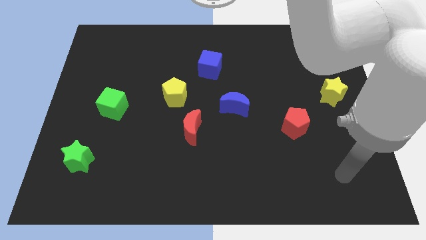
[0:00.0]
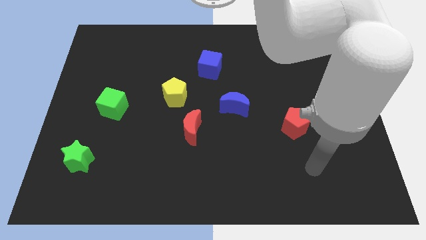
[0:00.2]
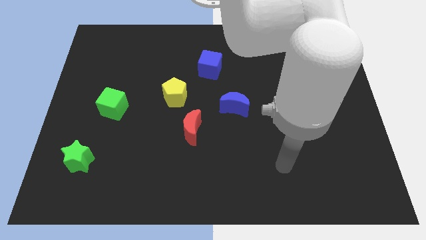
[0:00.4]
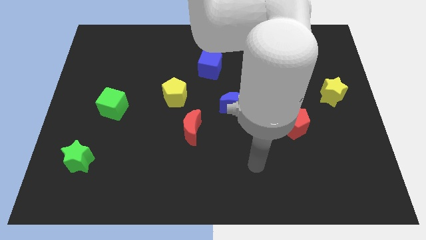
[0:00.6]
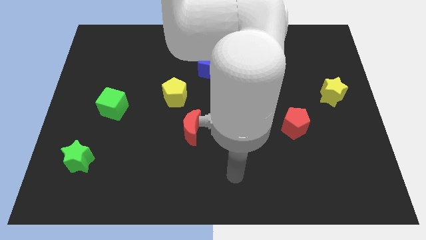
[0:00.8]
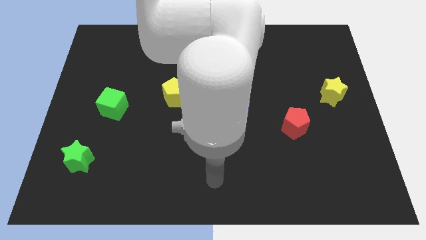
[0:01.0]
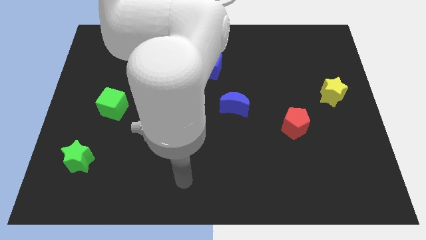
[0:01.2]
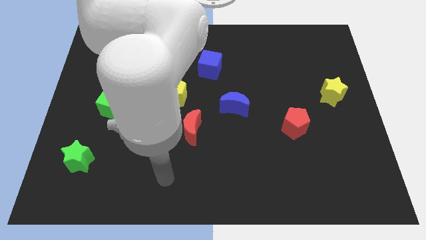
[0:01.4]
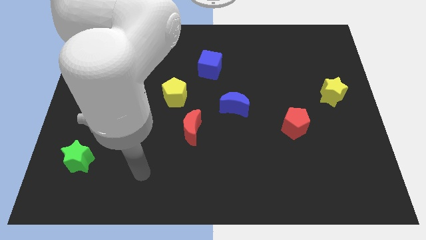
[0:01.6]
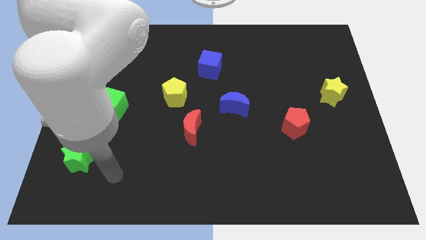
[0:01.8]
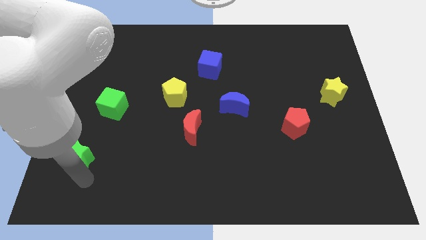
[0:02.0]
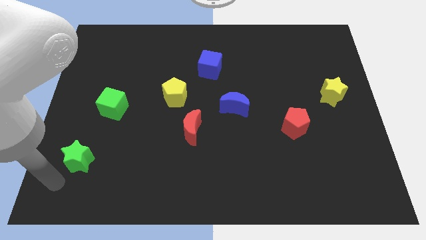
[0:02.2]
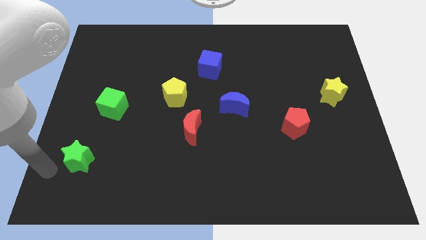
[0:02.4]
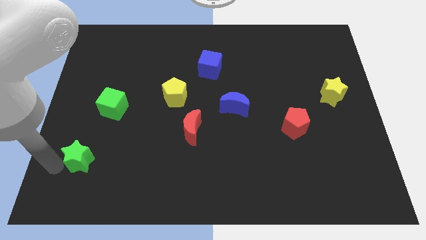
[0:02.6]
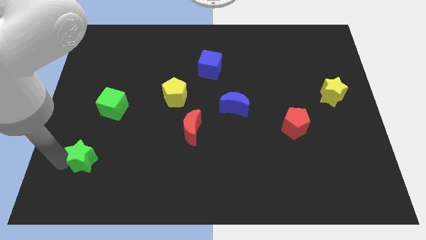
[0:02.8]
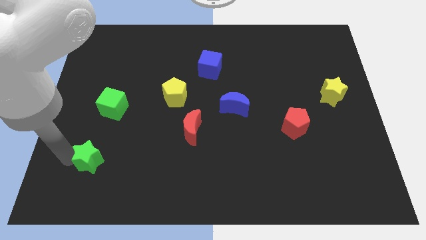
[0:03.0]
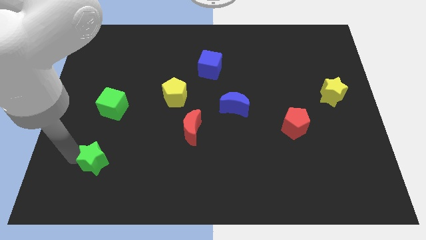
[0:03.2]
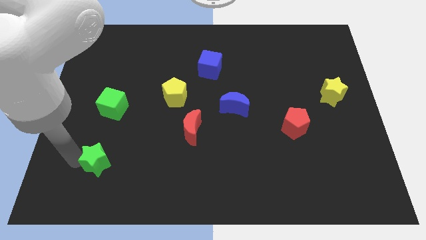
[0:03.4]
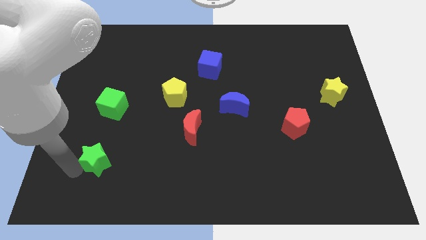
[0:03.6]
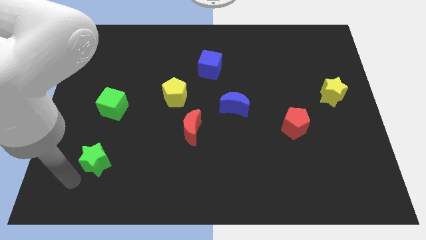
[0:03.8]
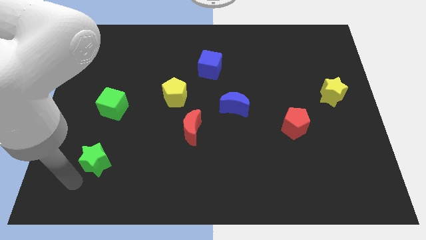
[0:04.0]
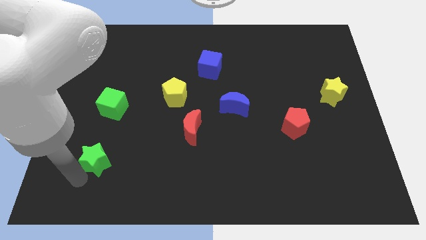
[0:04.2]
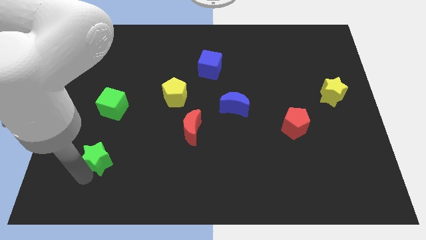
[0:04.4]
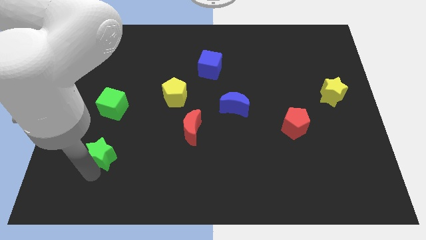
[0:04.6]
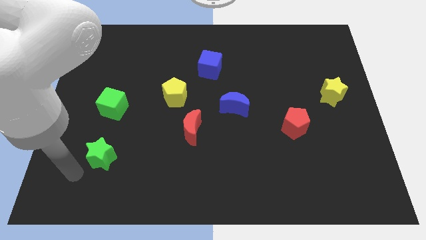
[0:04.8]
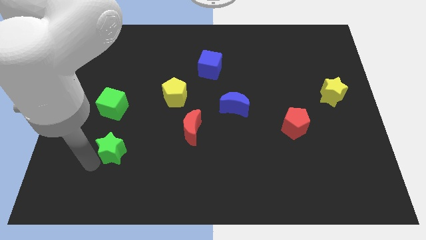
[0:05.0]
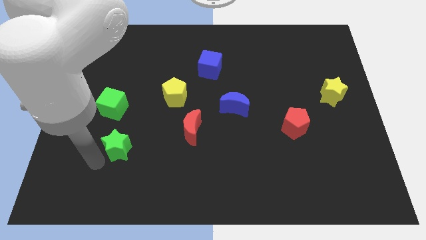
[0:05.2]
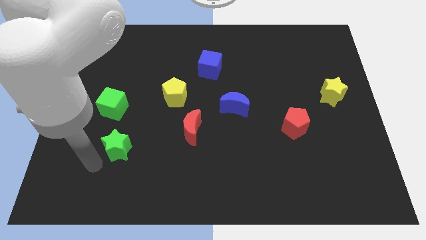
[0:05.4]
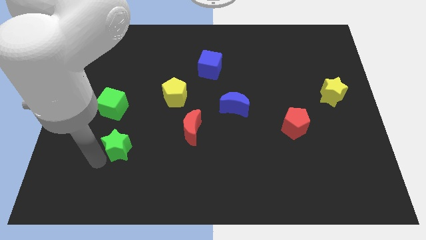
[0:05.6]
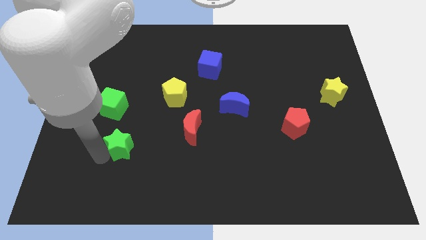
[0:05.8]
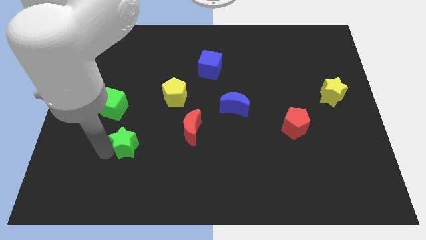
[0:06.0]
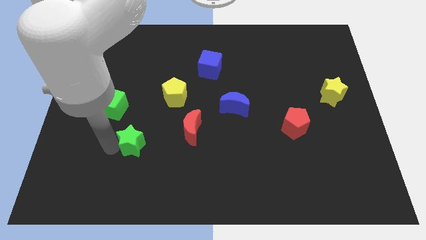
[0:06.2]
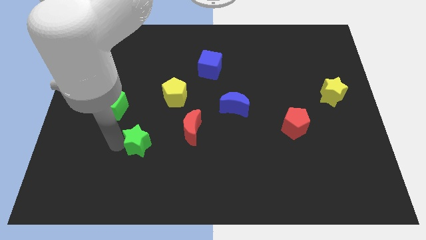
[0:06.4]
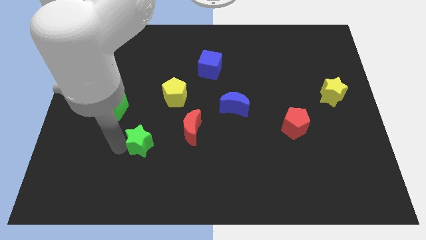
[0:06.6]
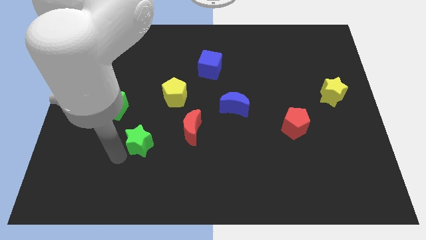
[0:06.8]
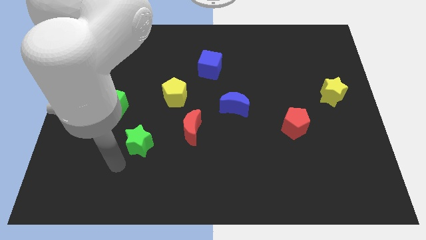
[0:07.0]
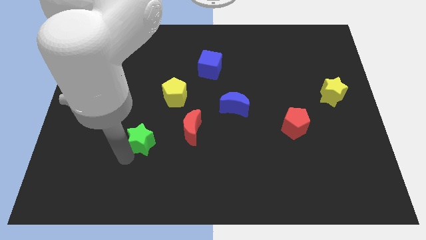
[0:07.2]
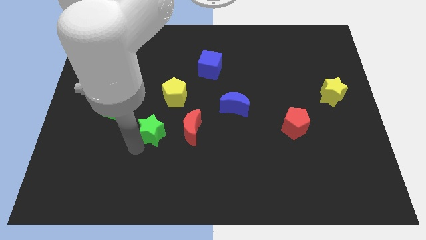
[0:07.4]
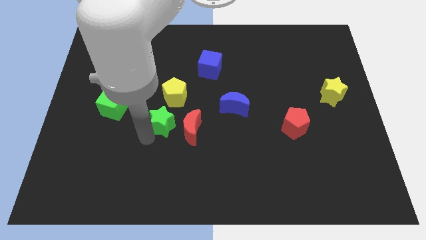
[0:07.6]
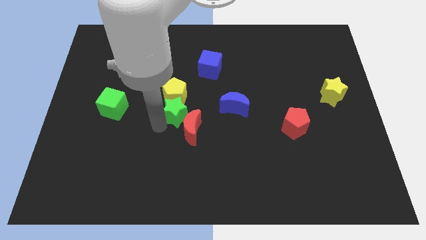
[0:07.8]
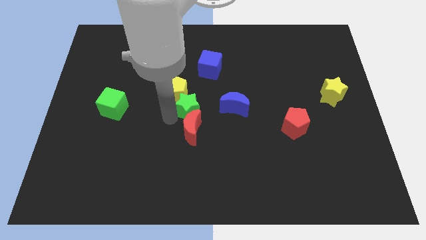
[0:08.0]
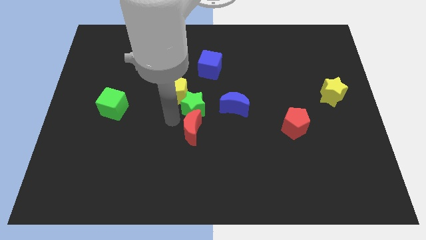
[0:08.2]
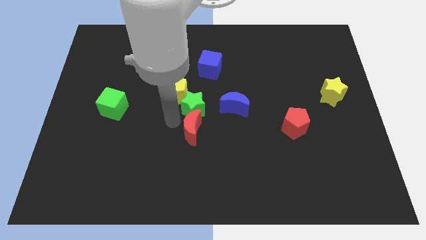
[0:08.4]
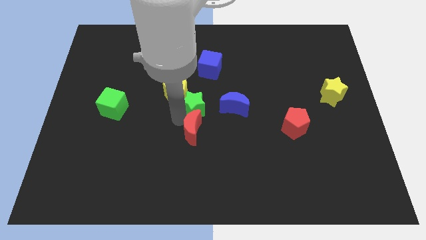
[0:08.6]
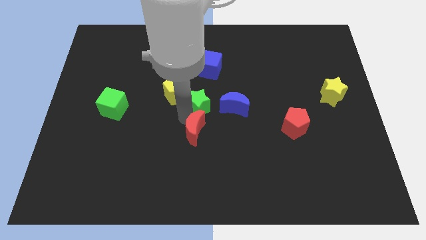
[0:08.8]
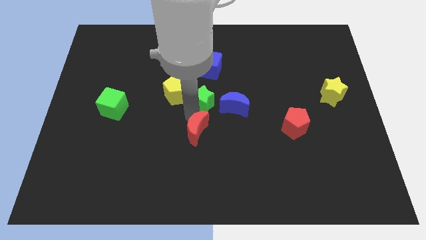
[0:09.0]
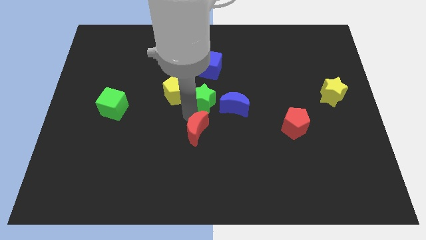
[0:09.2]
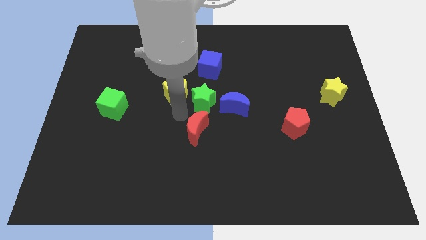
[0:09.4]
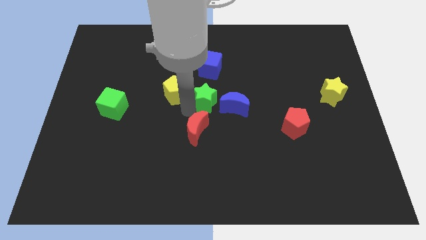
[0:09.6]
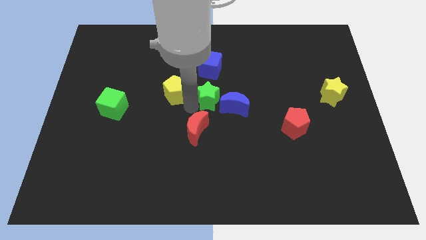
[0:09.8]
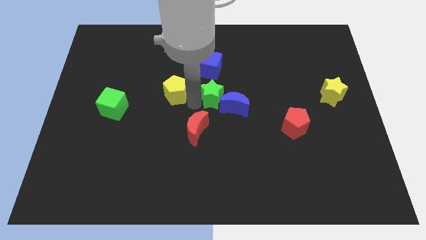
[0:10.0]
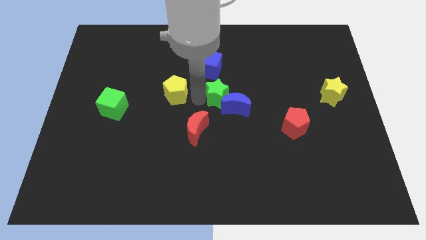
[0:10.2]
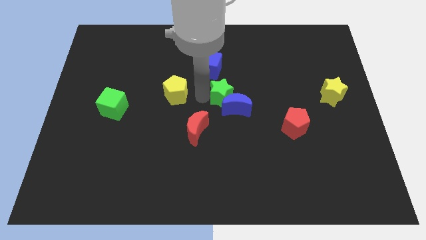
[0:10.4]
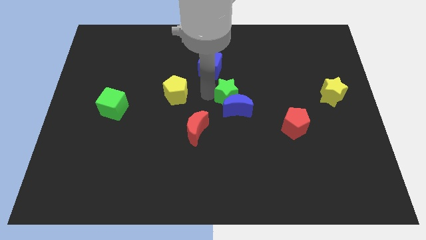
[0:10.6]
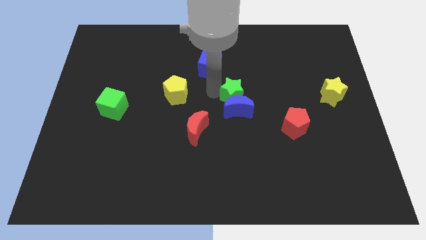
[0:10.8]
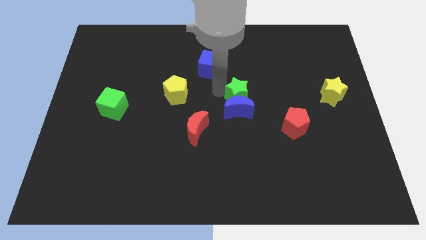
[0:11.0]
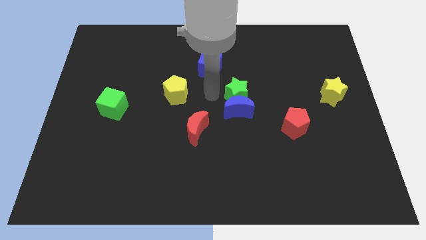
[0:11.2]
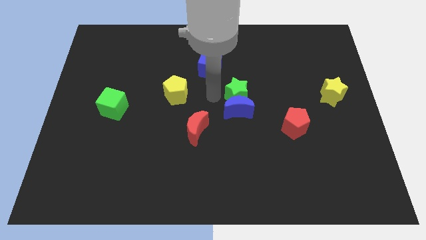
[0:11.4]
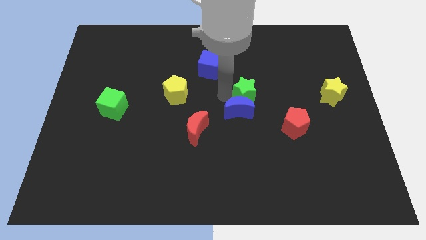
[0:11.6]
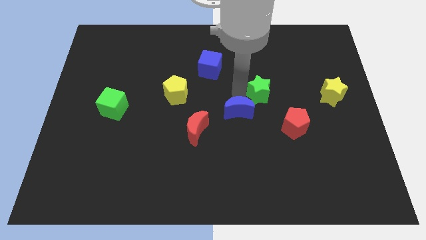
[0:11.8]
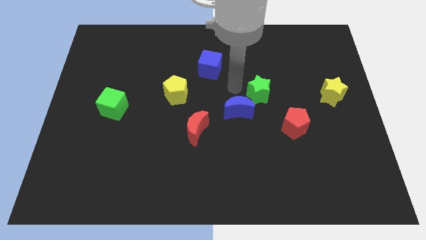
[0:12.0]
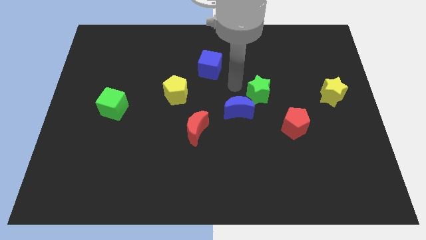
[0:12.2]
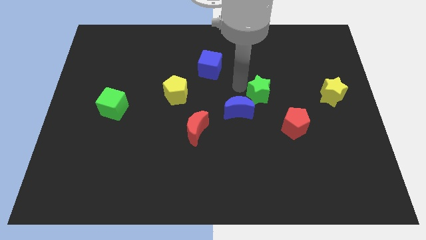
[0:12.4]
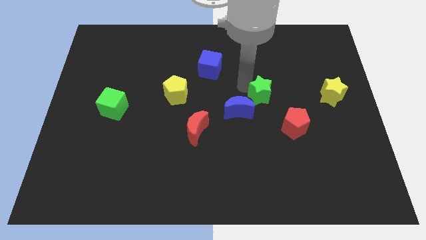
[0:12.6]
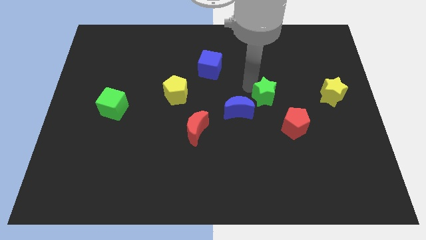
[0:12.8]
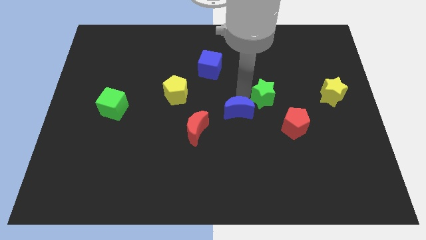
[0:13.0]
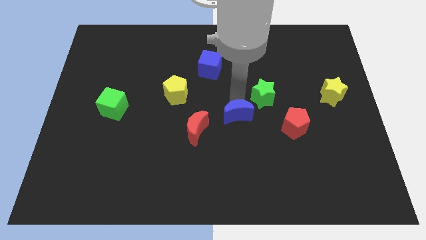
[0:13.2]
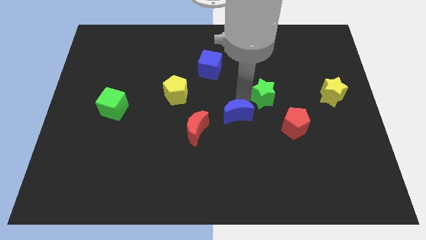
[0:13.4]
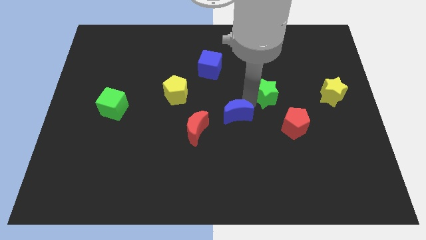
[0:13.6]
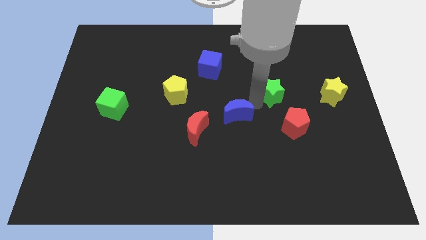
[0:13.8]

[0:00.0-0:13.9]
move the green star above the red pentagon

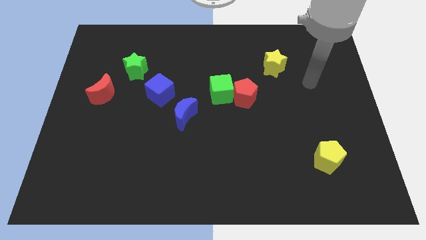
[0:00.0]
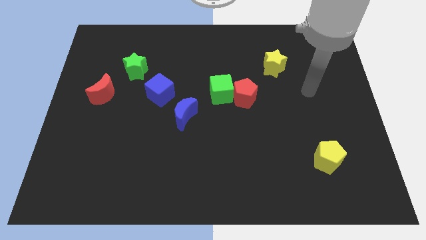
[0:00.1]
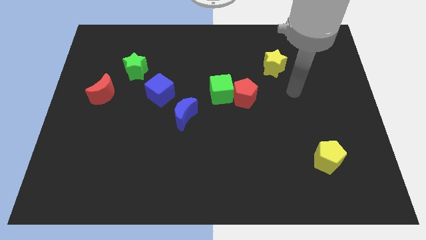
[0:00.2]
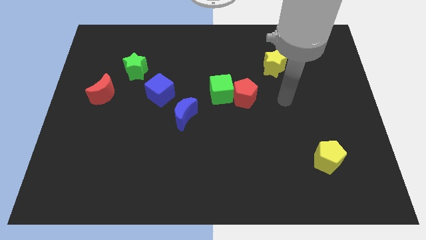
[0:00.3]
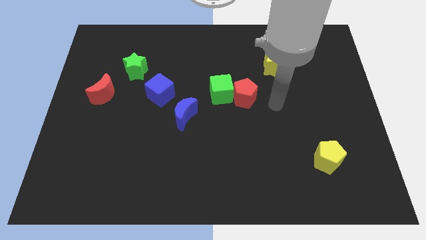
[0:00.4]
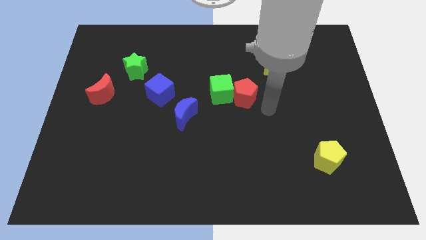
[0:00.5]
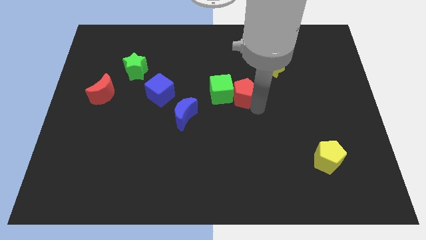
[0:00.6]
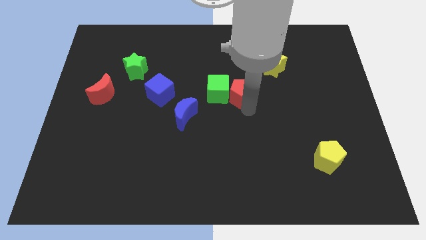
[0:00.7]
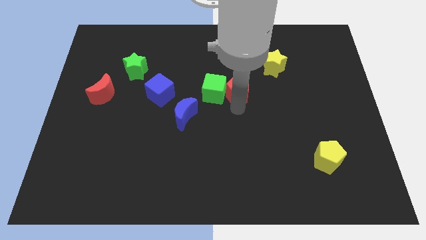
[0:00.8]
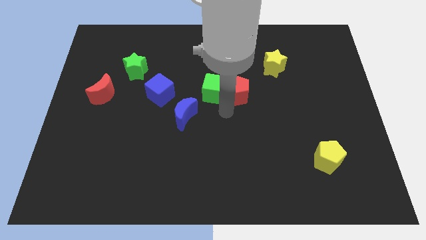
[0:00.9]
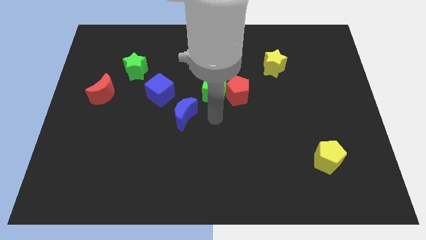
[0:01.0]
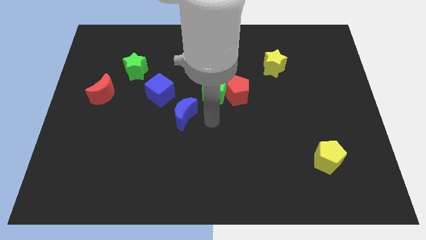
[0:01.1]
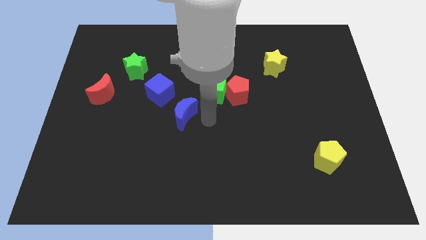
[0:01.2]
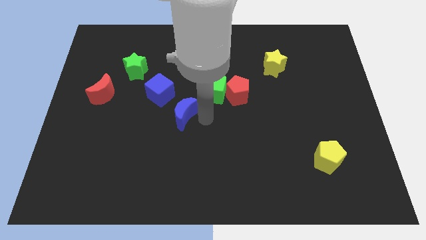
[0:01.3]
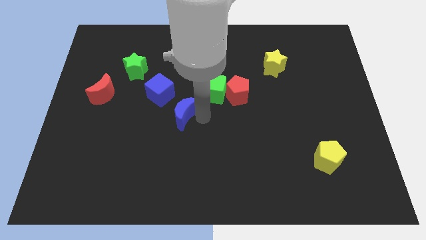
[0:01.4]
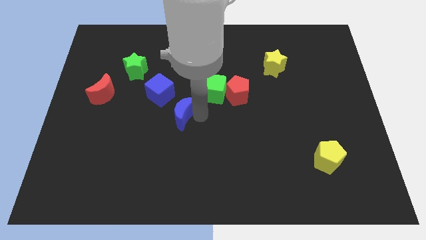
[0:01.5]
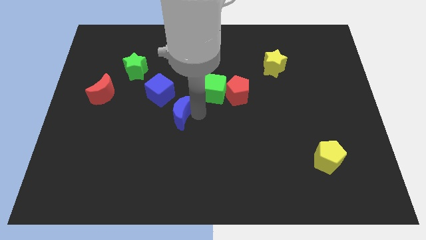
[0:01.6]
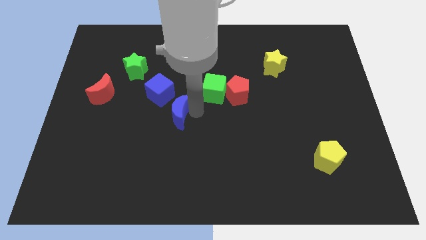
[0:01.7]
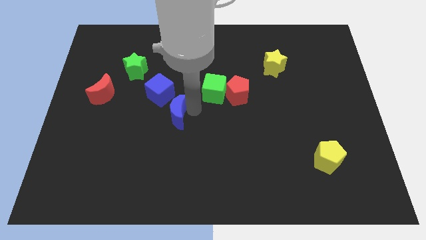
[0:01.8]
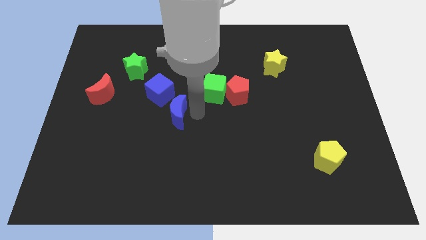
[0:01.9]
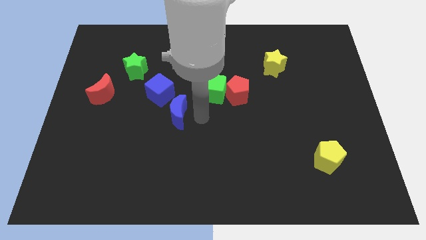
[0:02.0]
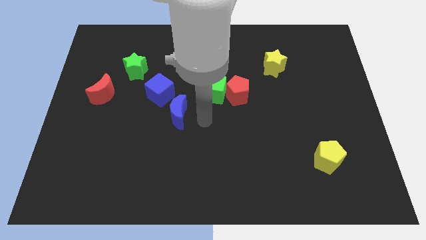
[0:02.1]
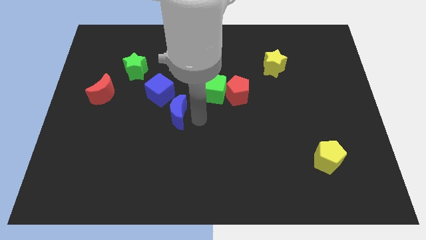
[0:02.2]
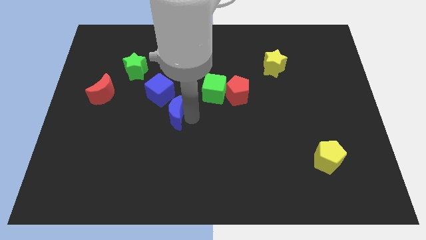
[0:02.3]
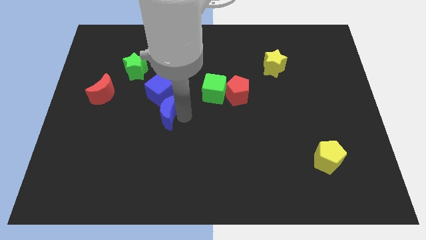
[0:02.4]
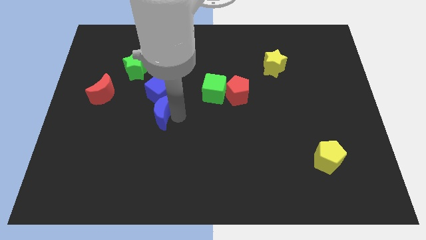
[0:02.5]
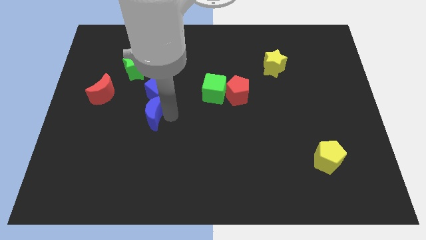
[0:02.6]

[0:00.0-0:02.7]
put the blue moon diagonally down and to the left of the blue cube
